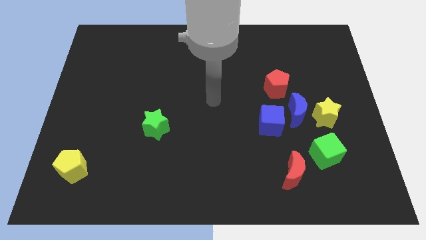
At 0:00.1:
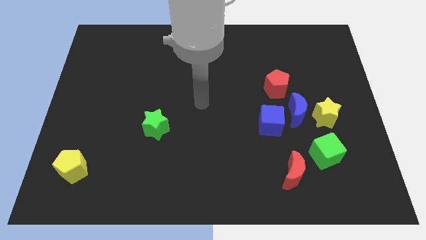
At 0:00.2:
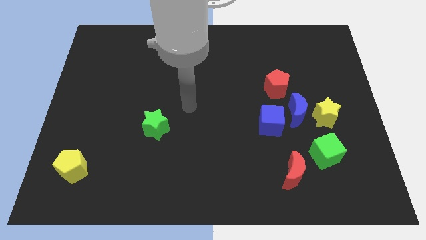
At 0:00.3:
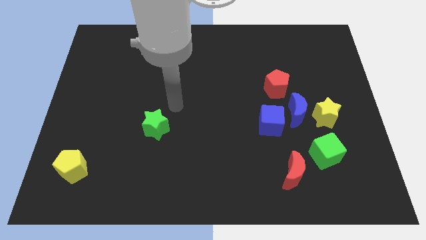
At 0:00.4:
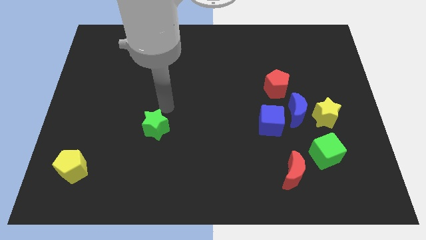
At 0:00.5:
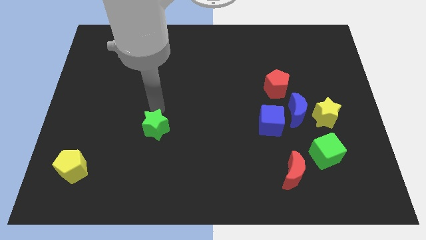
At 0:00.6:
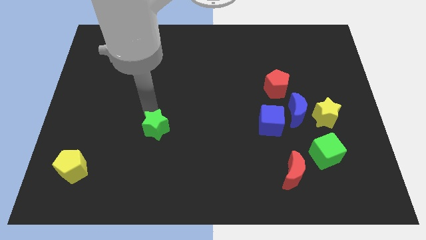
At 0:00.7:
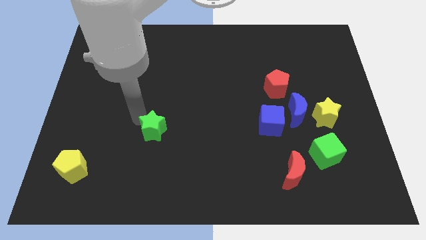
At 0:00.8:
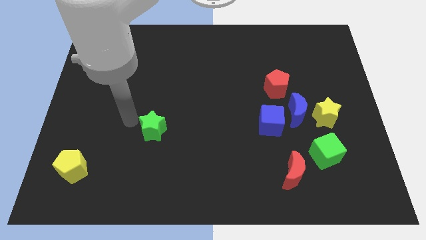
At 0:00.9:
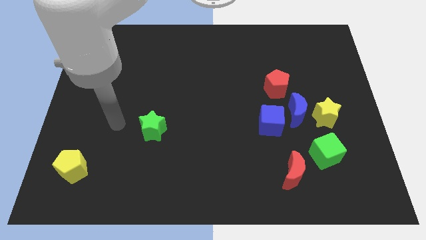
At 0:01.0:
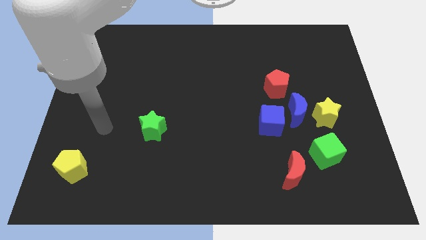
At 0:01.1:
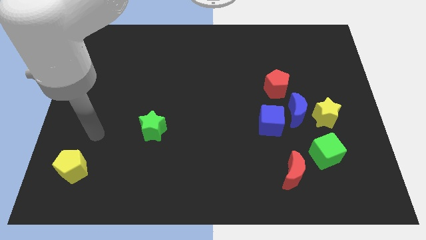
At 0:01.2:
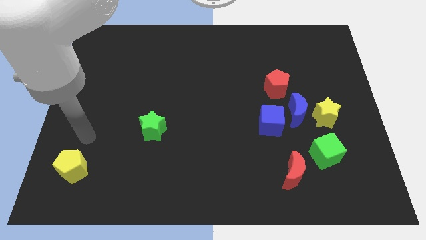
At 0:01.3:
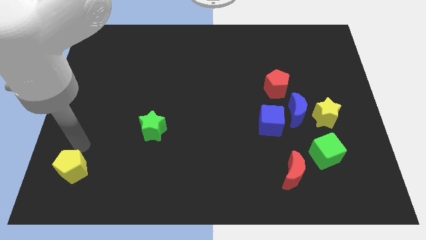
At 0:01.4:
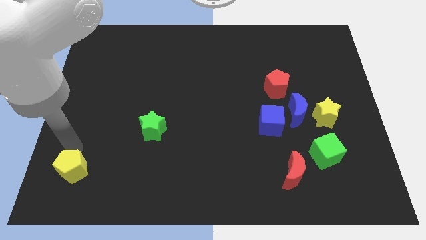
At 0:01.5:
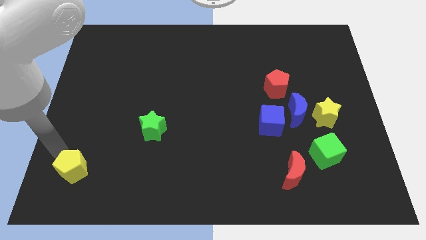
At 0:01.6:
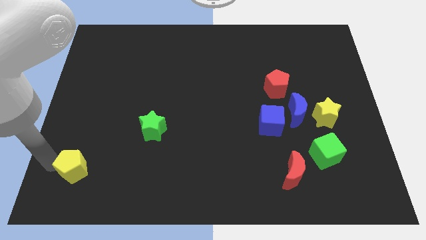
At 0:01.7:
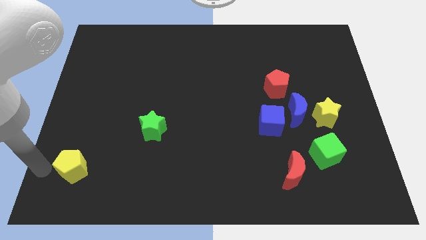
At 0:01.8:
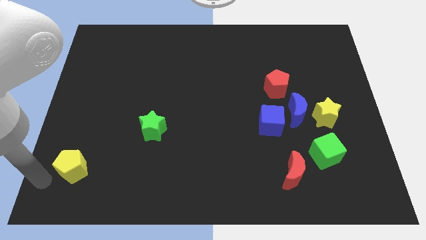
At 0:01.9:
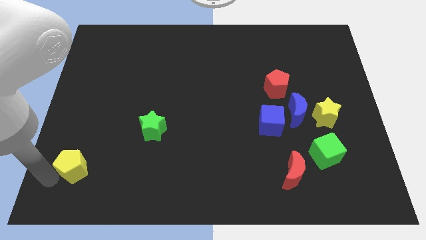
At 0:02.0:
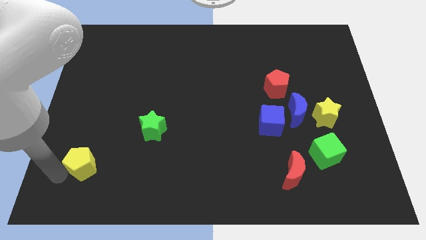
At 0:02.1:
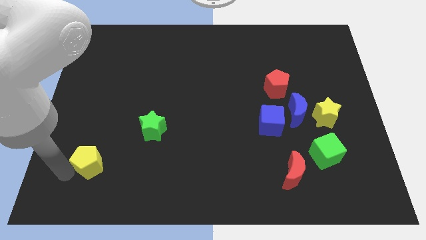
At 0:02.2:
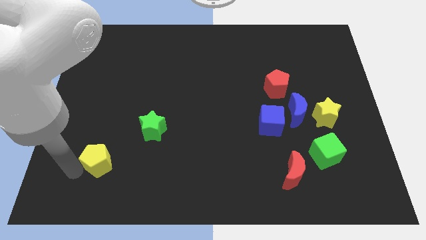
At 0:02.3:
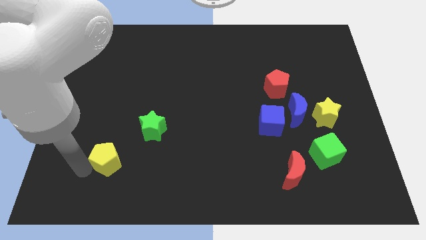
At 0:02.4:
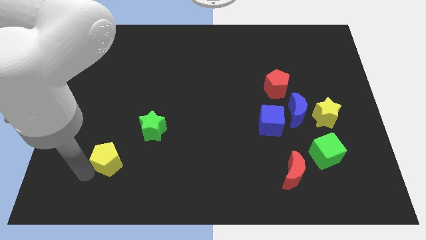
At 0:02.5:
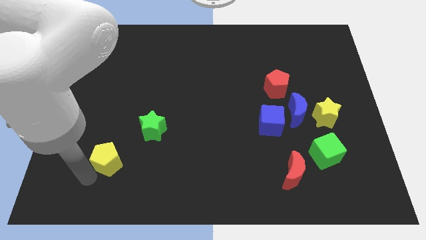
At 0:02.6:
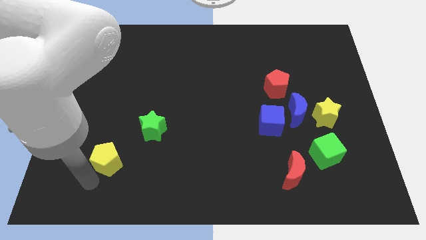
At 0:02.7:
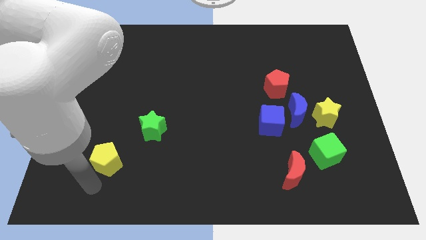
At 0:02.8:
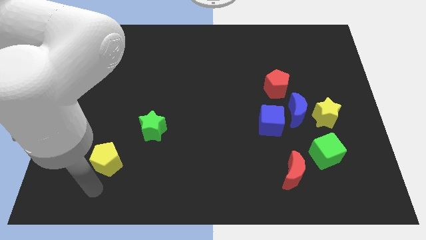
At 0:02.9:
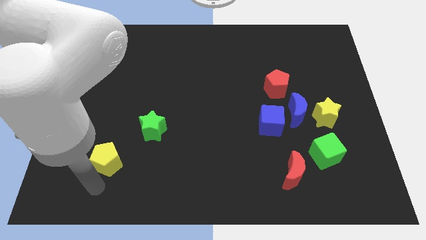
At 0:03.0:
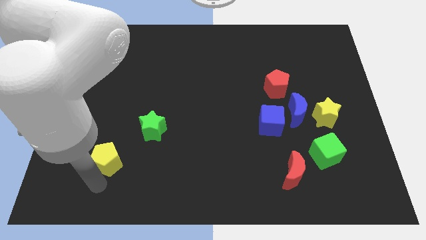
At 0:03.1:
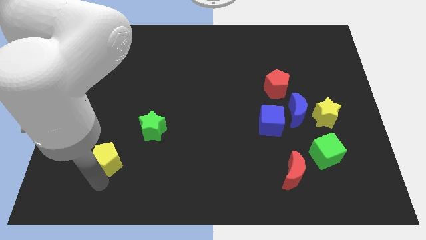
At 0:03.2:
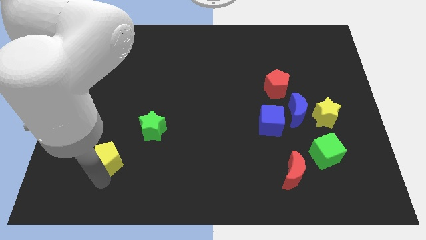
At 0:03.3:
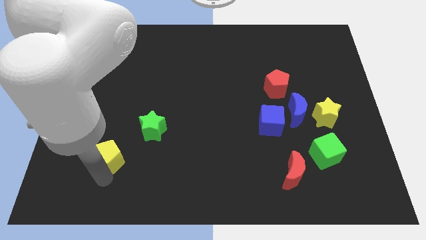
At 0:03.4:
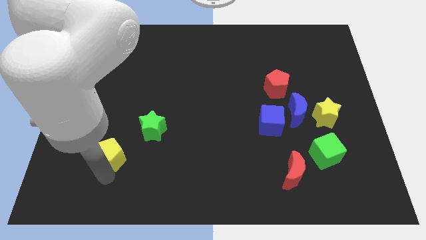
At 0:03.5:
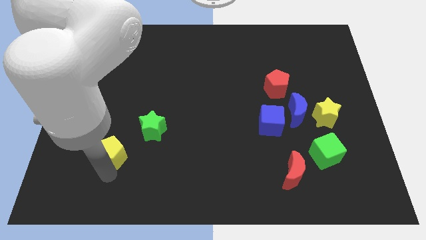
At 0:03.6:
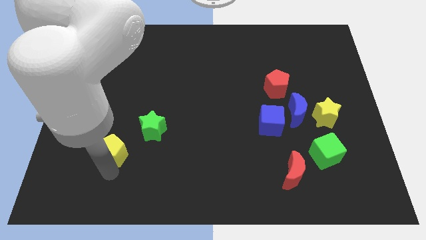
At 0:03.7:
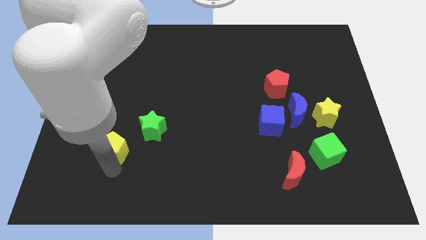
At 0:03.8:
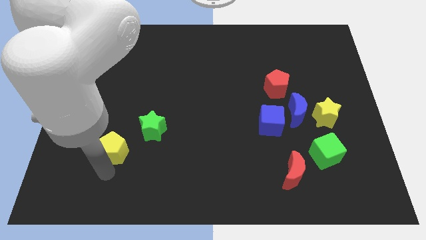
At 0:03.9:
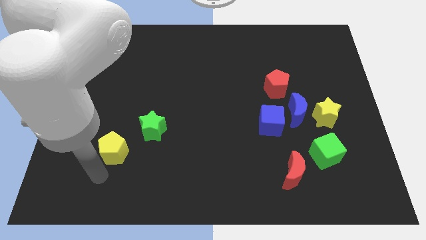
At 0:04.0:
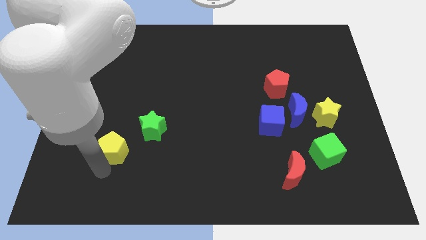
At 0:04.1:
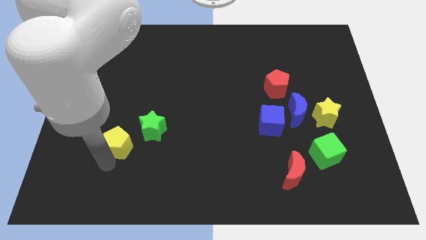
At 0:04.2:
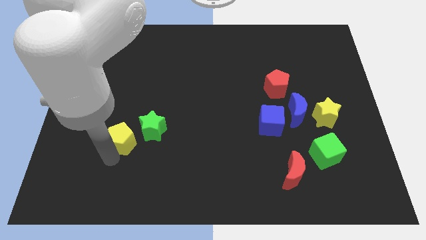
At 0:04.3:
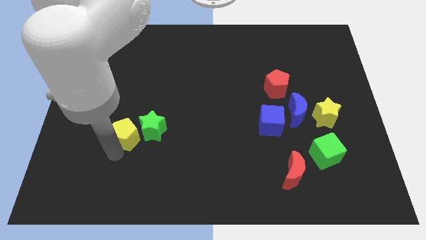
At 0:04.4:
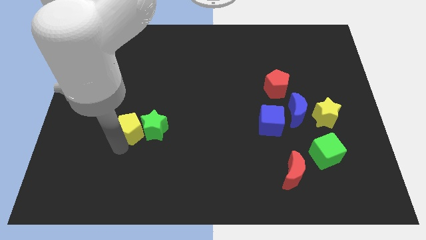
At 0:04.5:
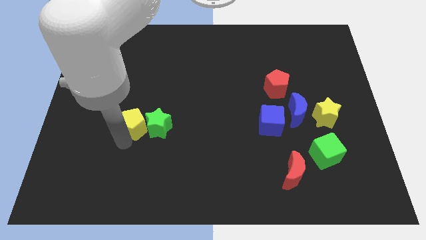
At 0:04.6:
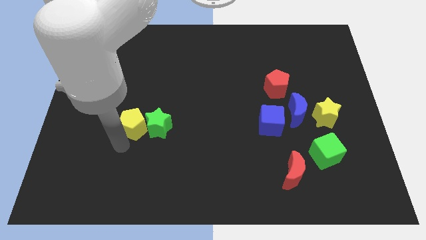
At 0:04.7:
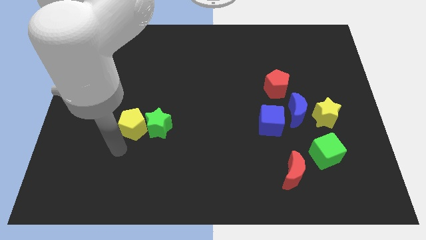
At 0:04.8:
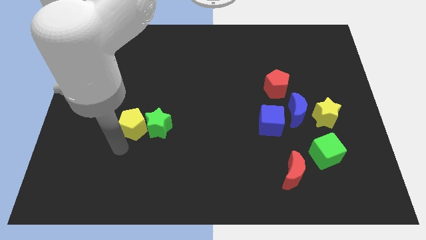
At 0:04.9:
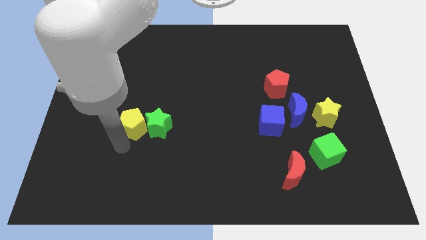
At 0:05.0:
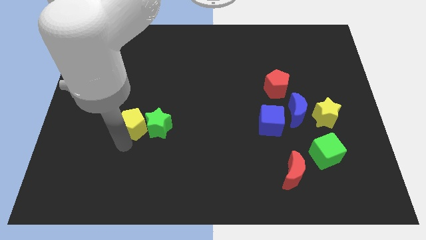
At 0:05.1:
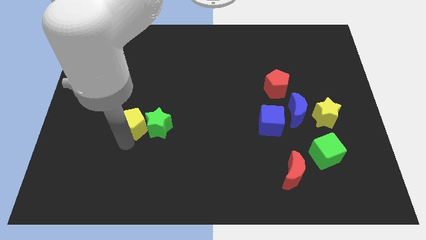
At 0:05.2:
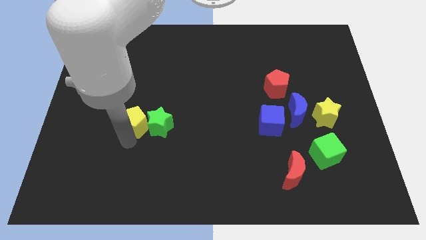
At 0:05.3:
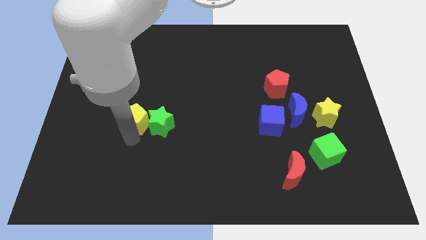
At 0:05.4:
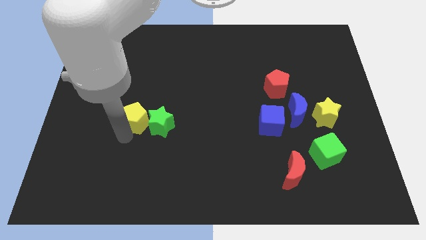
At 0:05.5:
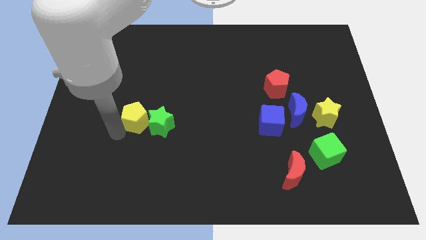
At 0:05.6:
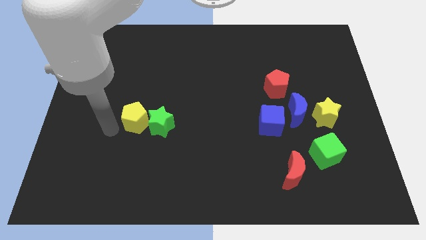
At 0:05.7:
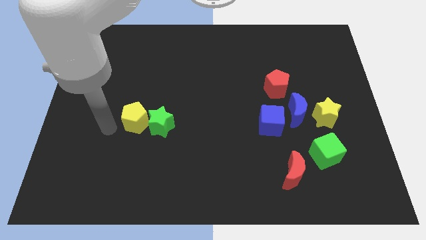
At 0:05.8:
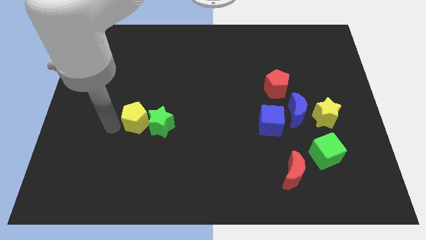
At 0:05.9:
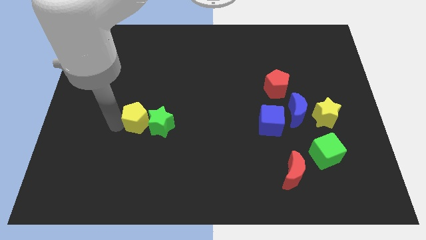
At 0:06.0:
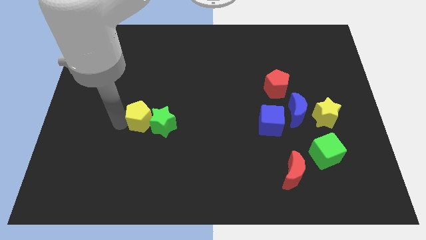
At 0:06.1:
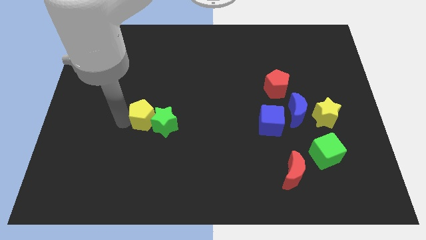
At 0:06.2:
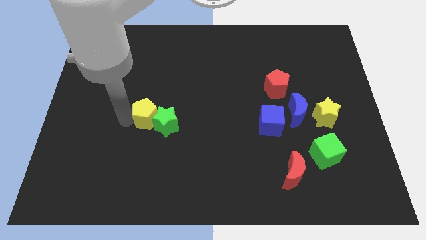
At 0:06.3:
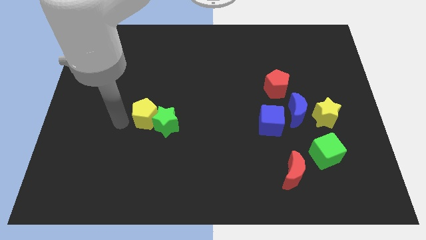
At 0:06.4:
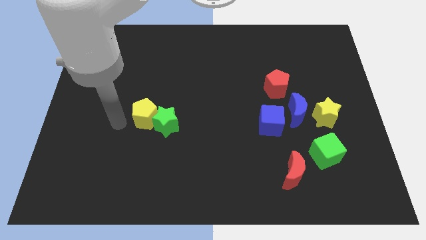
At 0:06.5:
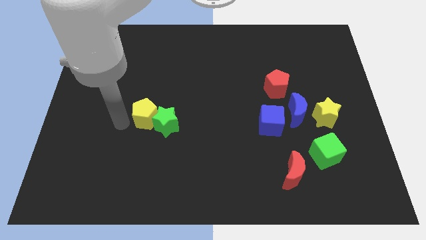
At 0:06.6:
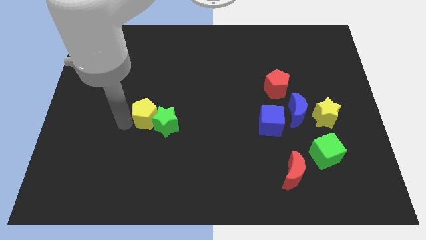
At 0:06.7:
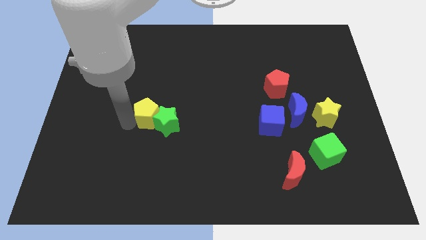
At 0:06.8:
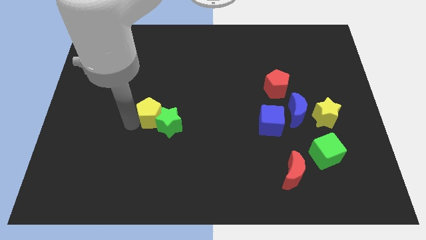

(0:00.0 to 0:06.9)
slide the yellow pentagon upwards and to the right

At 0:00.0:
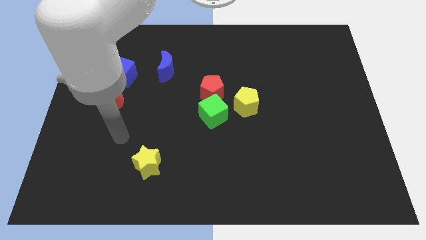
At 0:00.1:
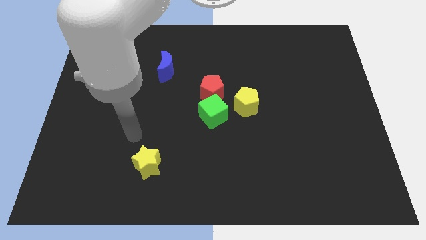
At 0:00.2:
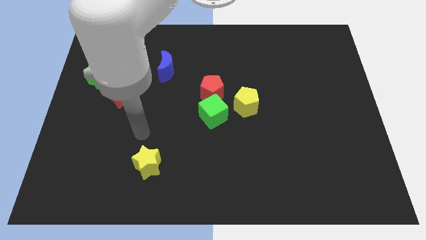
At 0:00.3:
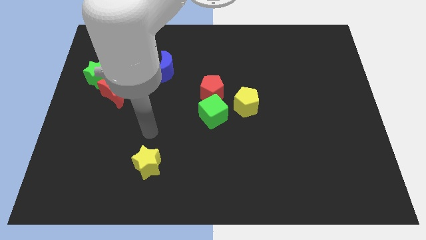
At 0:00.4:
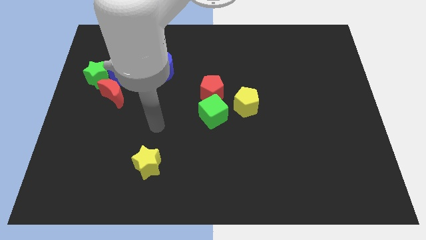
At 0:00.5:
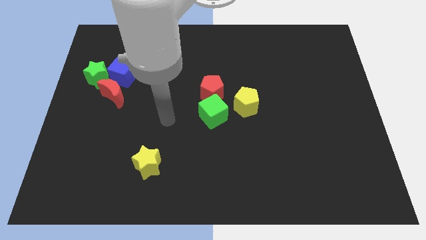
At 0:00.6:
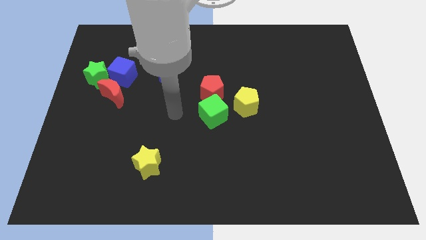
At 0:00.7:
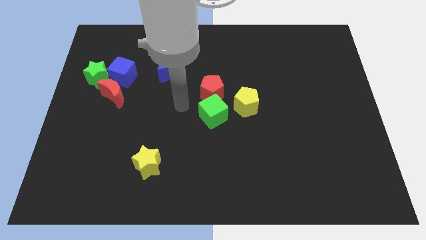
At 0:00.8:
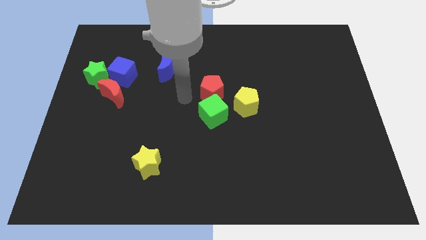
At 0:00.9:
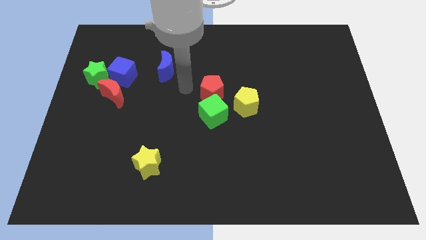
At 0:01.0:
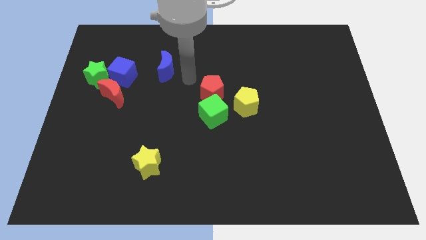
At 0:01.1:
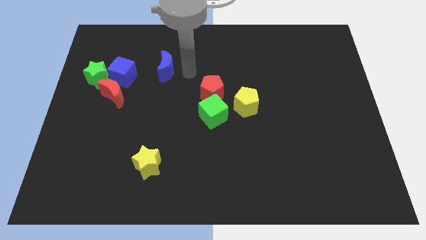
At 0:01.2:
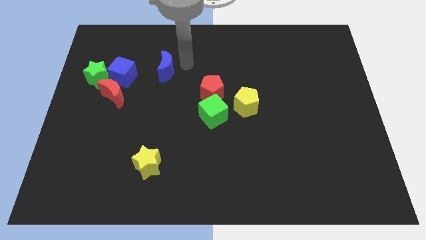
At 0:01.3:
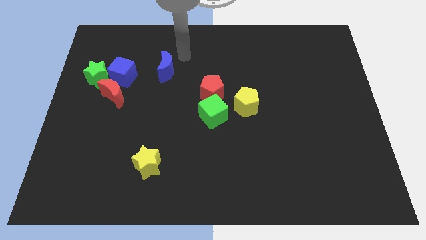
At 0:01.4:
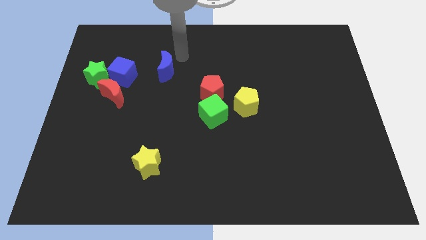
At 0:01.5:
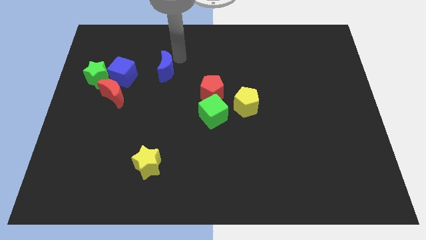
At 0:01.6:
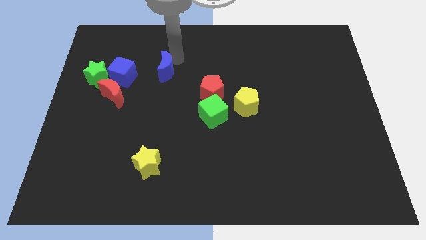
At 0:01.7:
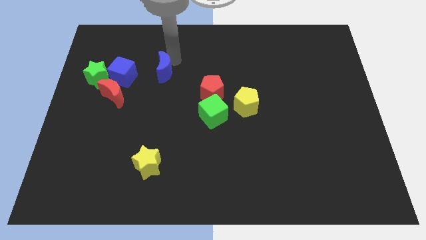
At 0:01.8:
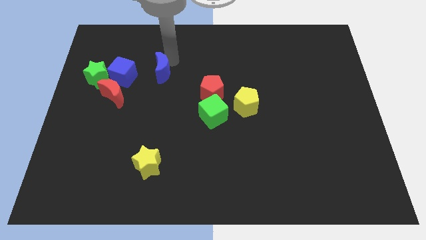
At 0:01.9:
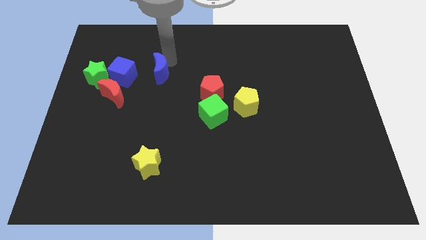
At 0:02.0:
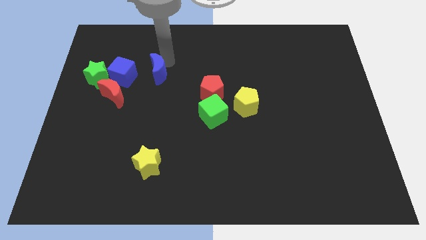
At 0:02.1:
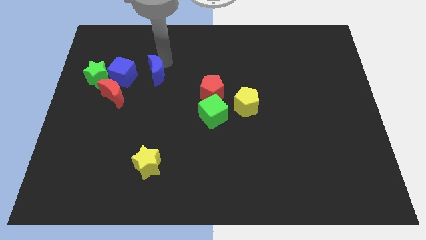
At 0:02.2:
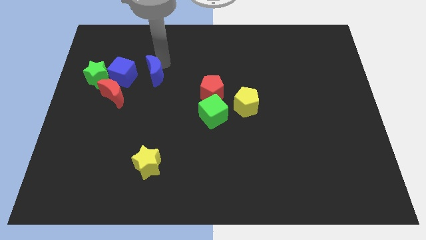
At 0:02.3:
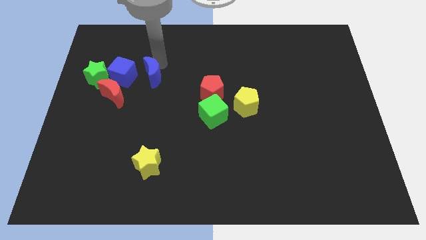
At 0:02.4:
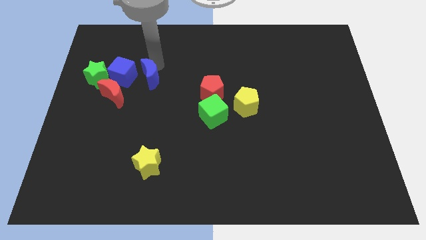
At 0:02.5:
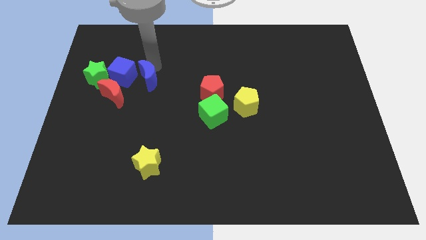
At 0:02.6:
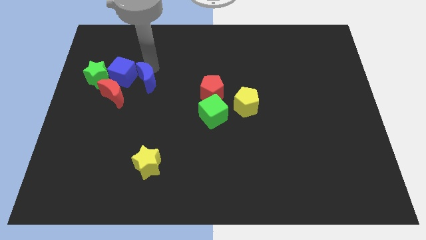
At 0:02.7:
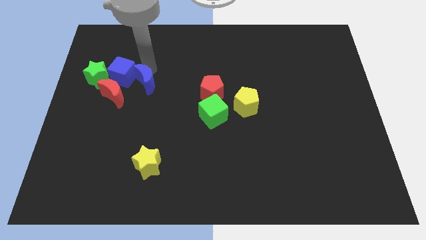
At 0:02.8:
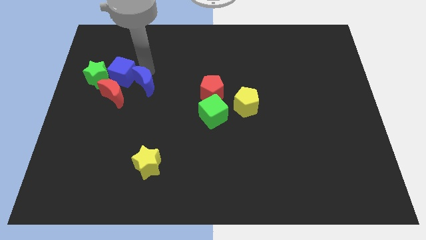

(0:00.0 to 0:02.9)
push the blue moon a bit down and then to the left
